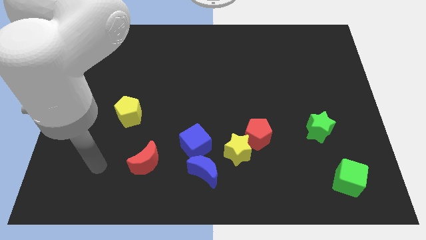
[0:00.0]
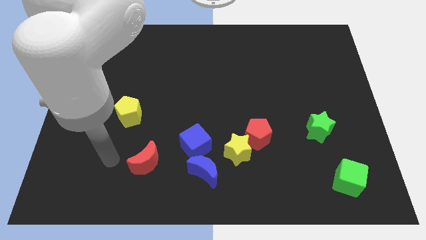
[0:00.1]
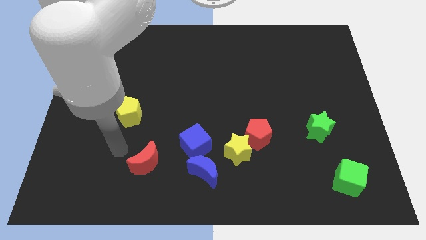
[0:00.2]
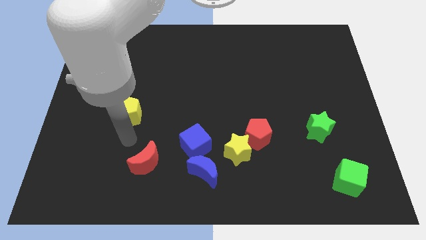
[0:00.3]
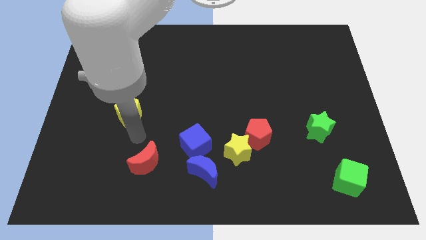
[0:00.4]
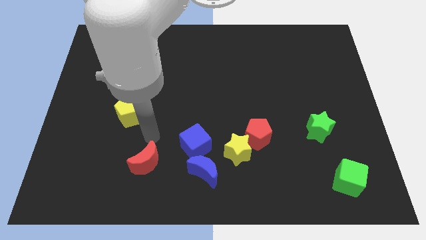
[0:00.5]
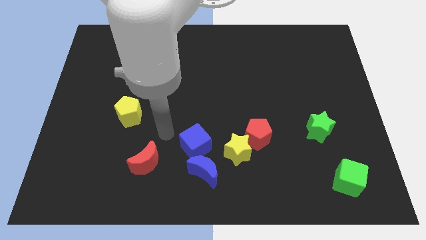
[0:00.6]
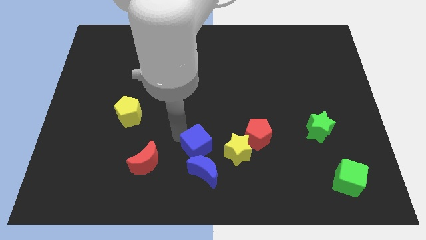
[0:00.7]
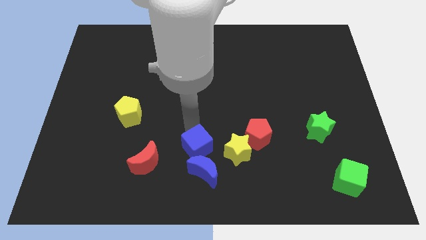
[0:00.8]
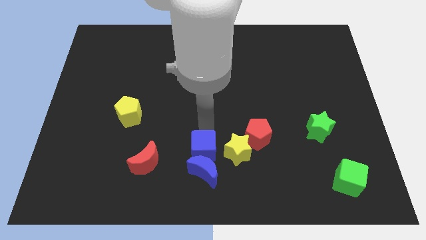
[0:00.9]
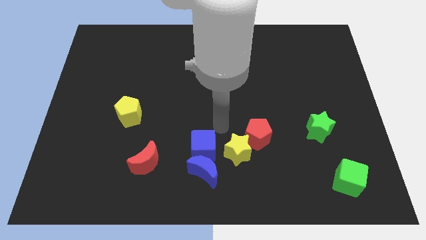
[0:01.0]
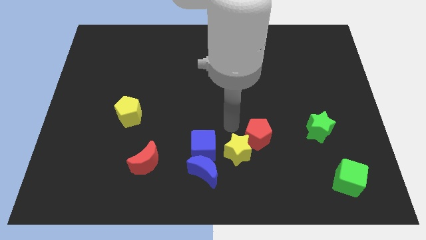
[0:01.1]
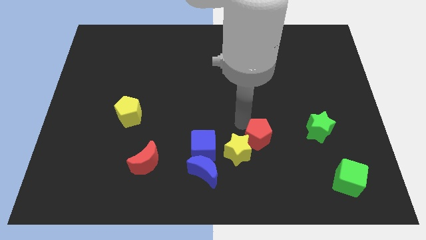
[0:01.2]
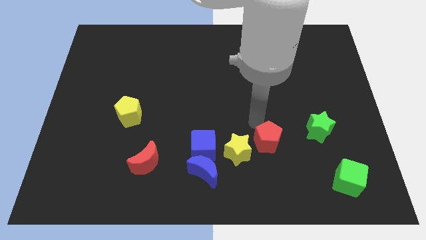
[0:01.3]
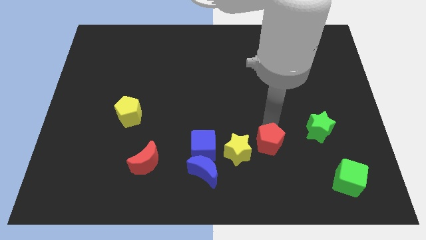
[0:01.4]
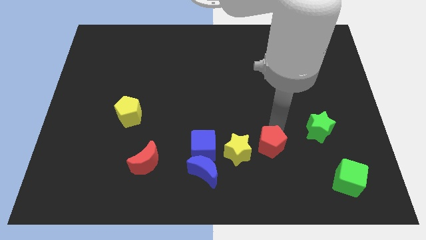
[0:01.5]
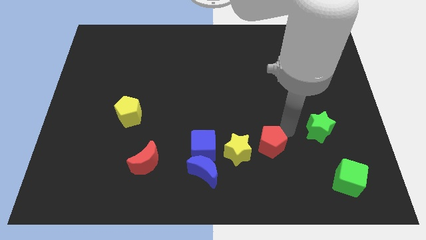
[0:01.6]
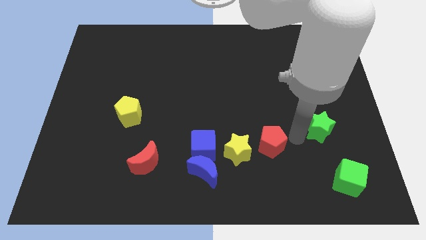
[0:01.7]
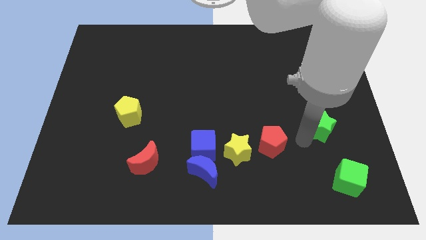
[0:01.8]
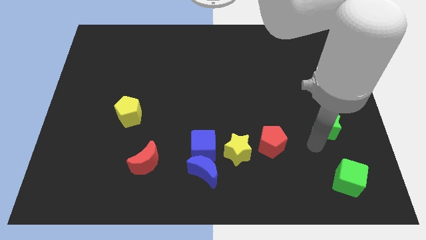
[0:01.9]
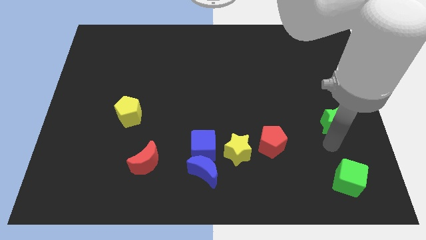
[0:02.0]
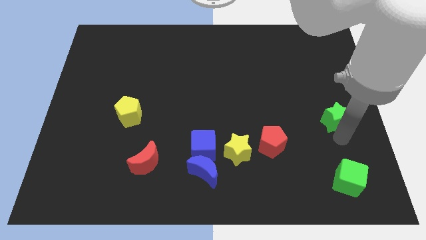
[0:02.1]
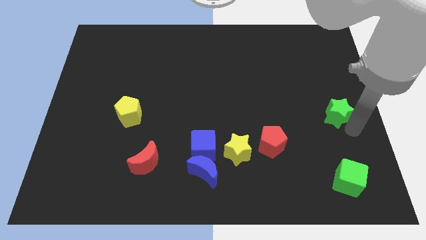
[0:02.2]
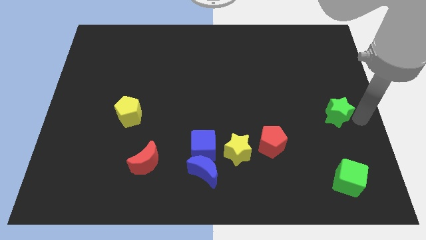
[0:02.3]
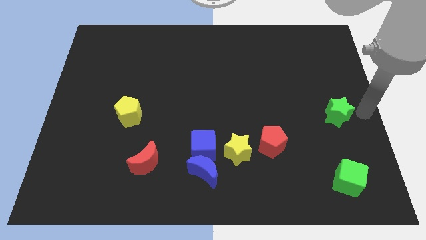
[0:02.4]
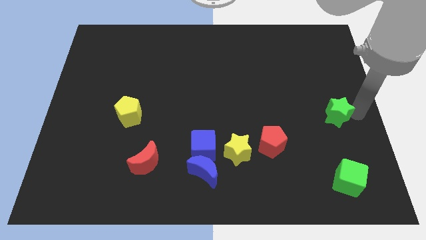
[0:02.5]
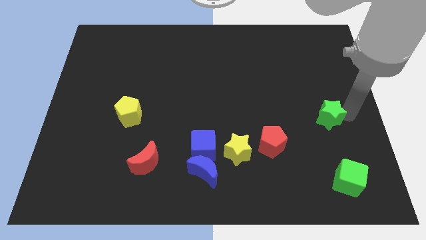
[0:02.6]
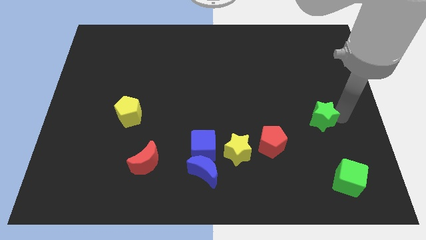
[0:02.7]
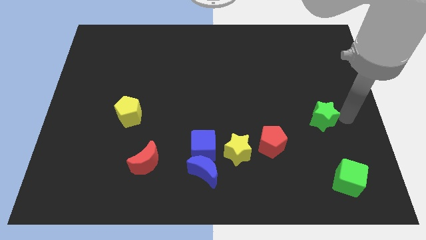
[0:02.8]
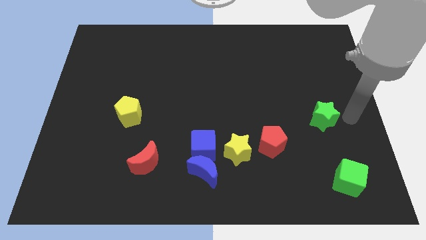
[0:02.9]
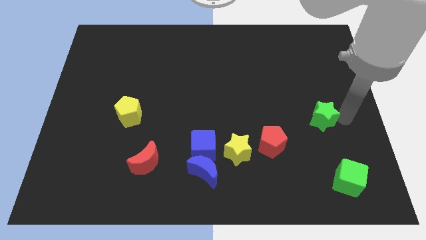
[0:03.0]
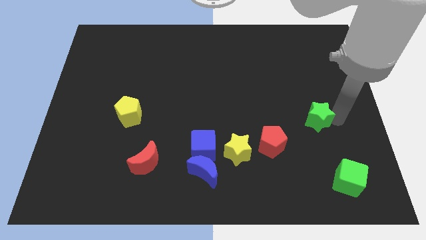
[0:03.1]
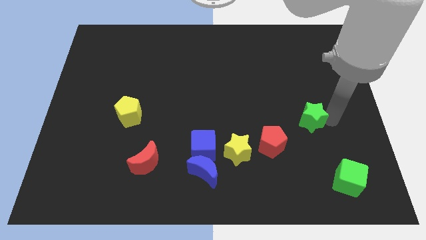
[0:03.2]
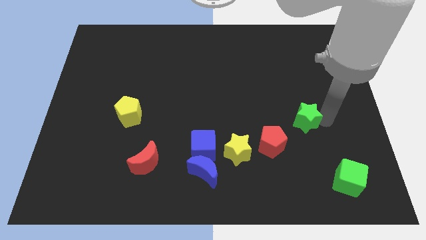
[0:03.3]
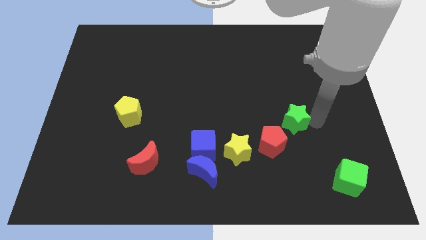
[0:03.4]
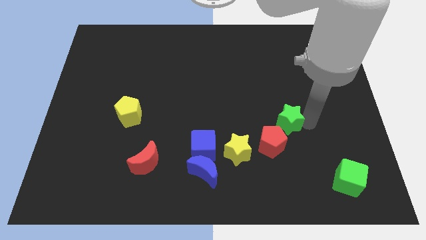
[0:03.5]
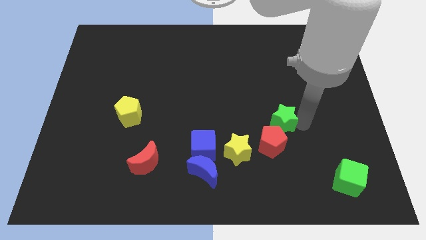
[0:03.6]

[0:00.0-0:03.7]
move the green star to the left a little bit

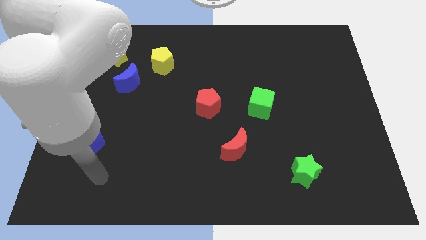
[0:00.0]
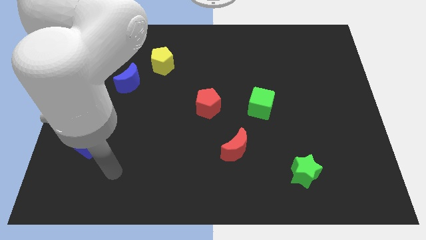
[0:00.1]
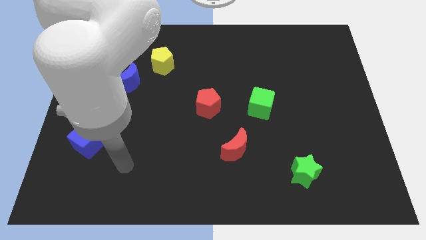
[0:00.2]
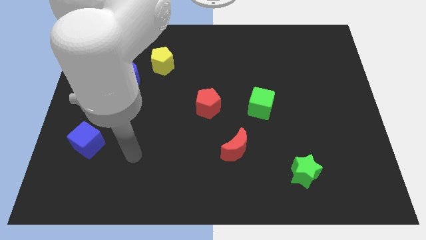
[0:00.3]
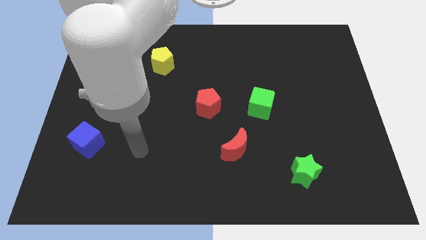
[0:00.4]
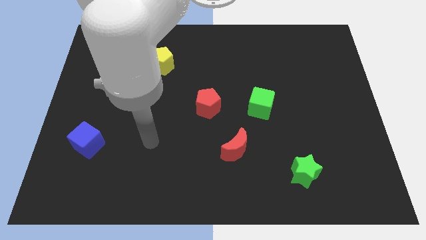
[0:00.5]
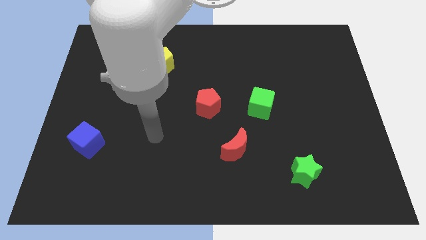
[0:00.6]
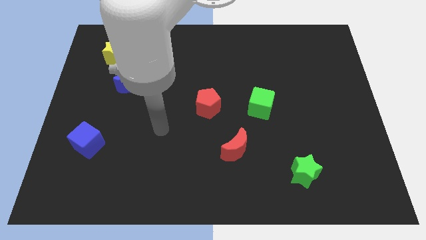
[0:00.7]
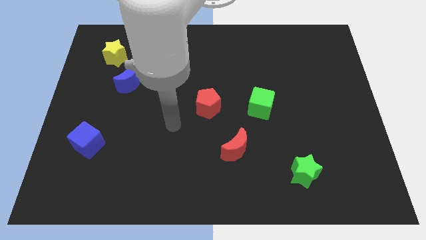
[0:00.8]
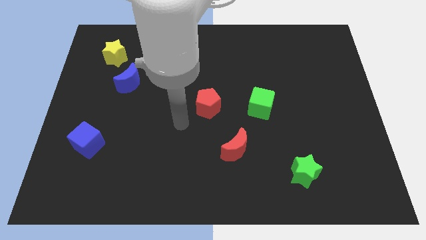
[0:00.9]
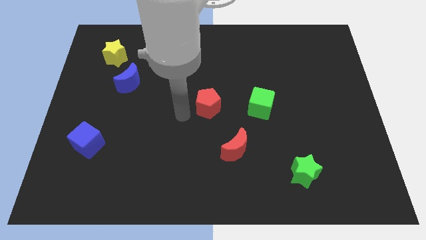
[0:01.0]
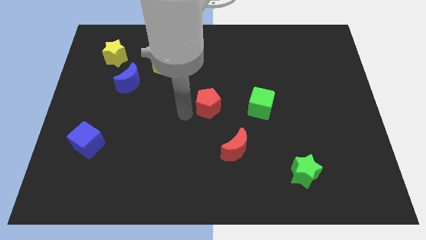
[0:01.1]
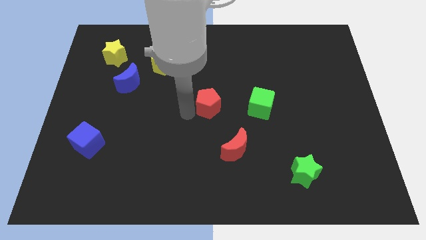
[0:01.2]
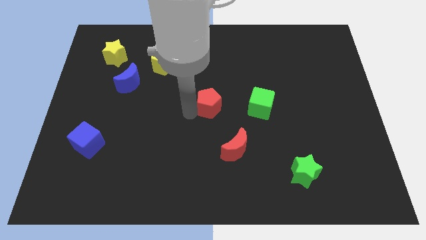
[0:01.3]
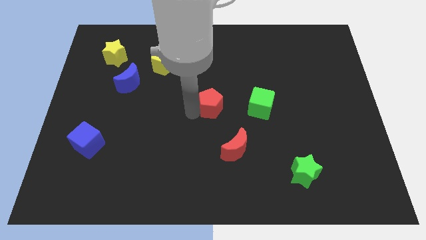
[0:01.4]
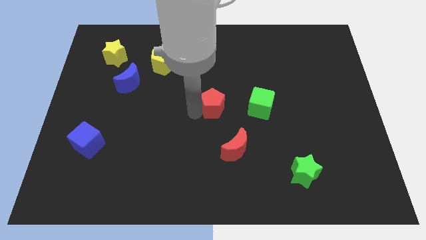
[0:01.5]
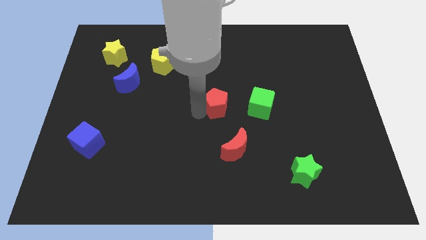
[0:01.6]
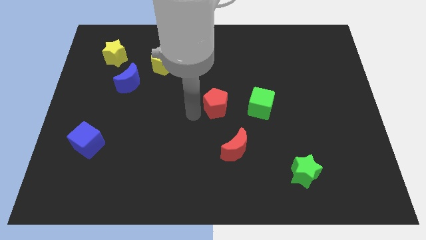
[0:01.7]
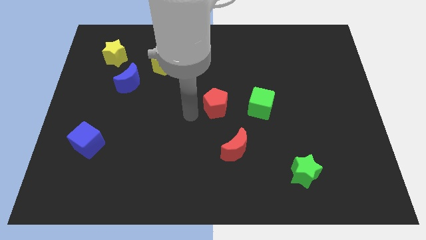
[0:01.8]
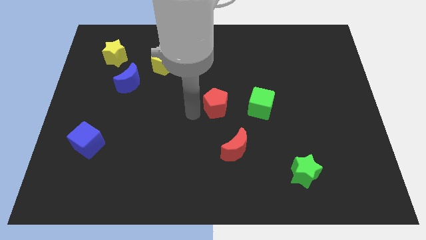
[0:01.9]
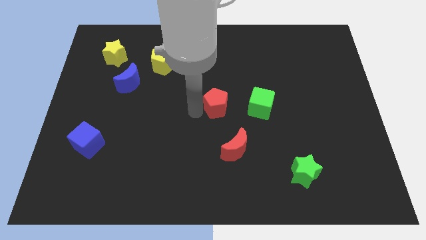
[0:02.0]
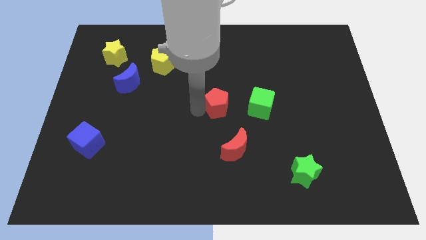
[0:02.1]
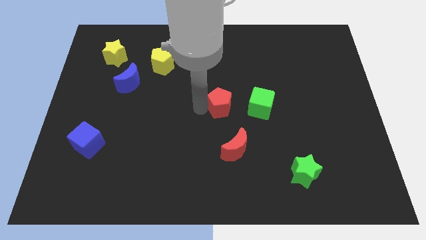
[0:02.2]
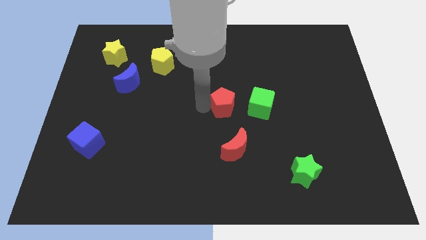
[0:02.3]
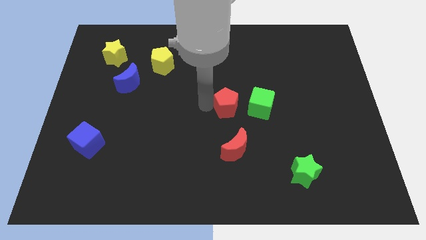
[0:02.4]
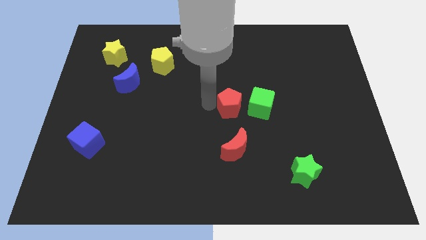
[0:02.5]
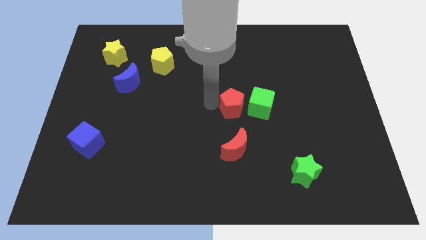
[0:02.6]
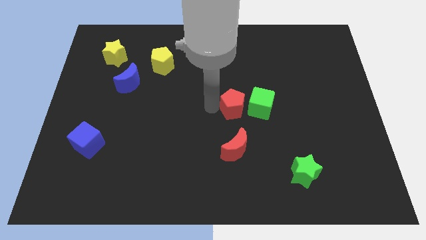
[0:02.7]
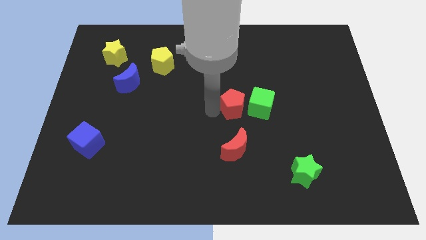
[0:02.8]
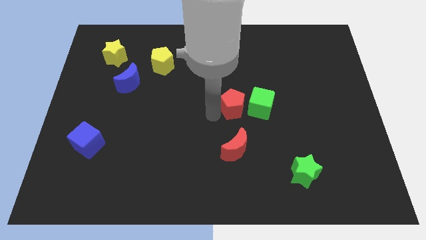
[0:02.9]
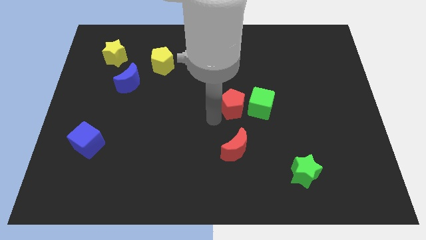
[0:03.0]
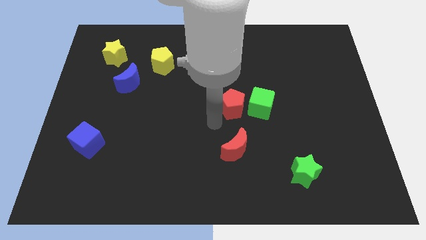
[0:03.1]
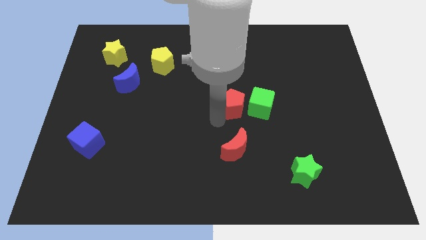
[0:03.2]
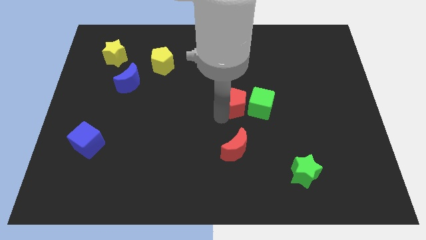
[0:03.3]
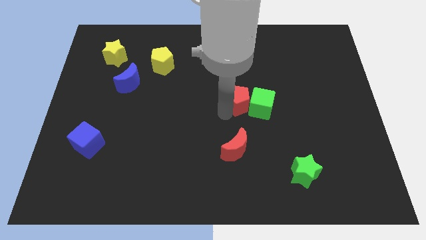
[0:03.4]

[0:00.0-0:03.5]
move the red pentagon right a little
